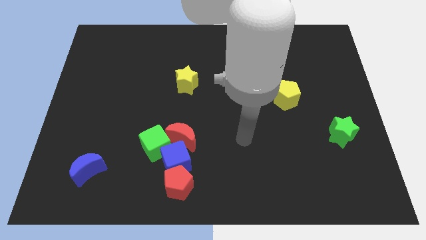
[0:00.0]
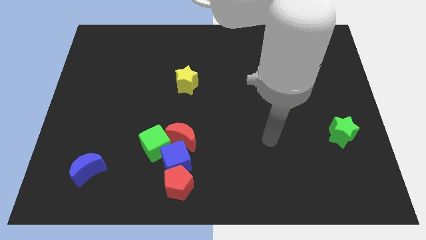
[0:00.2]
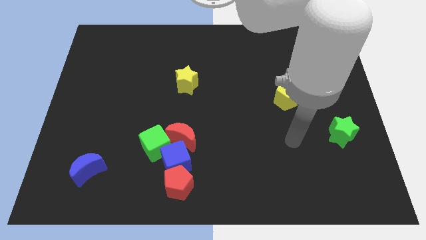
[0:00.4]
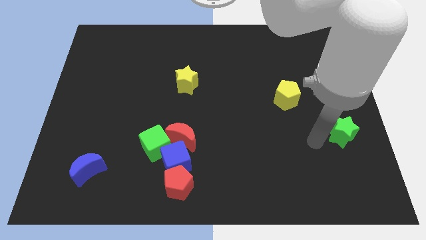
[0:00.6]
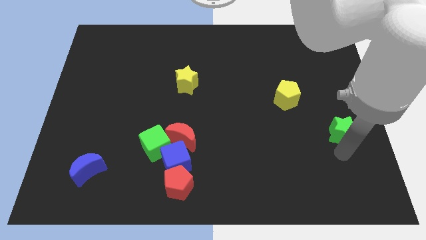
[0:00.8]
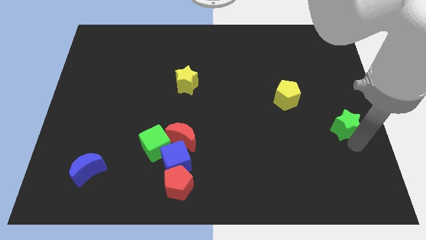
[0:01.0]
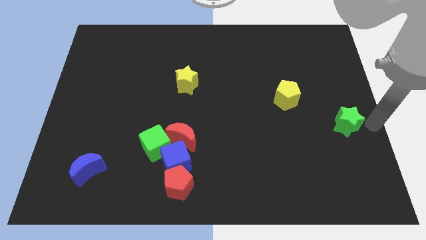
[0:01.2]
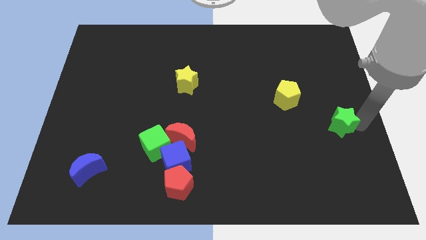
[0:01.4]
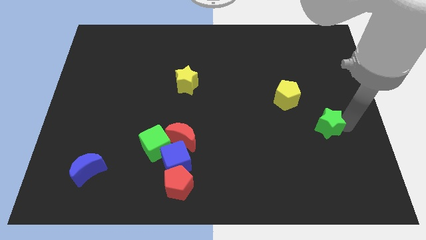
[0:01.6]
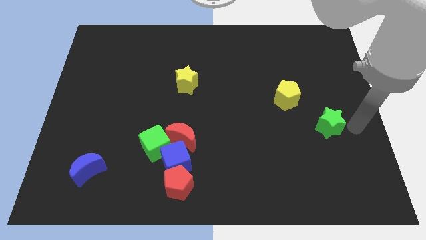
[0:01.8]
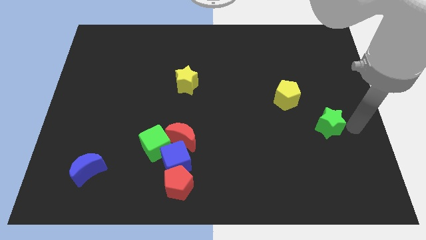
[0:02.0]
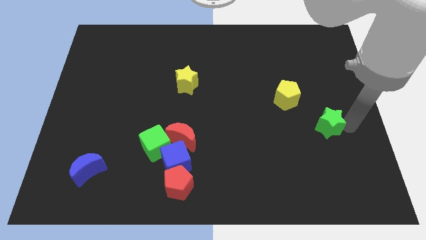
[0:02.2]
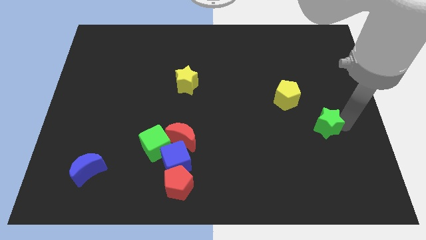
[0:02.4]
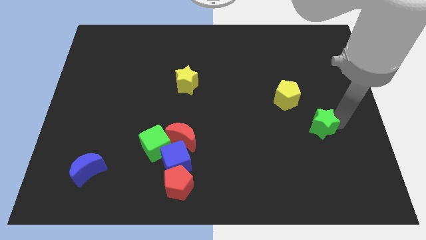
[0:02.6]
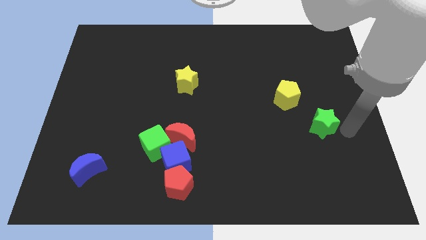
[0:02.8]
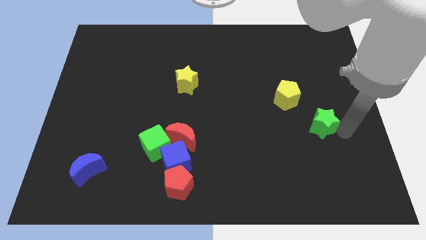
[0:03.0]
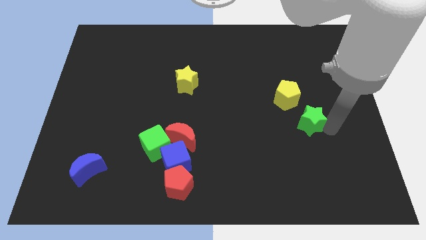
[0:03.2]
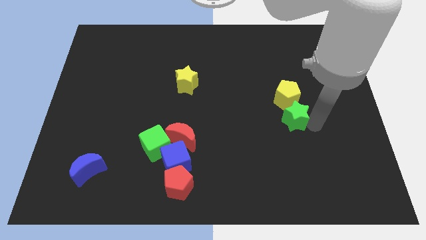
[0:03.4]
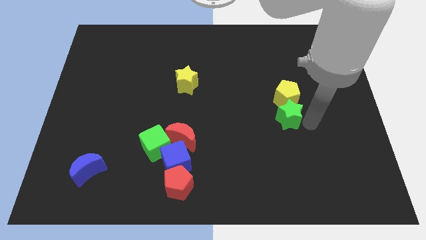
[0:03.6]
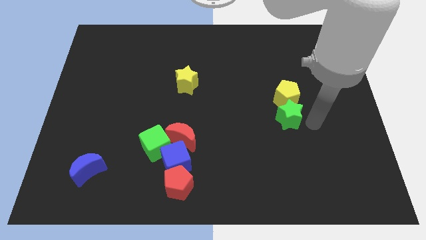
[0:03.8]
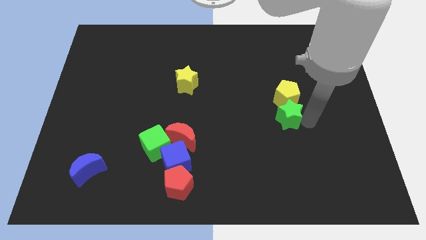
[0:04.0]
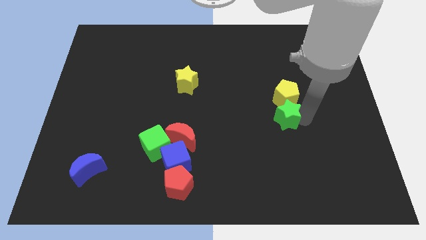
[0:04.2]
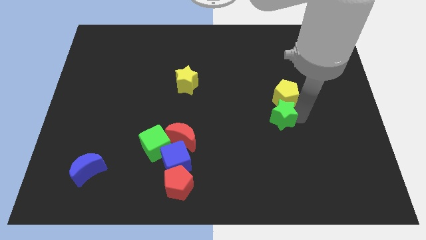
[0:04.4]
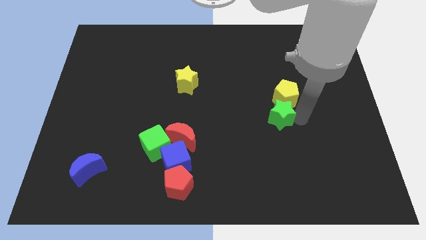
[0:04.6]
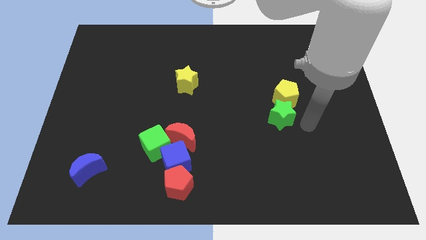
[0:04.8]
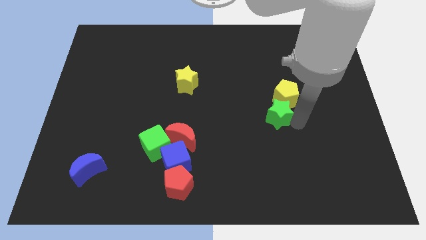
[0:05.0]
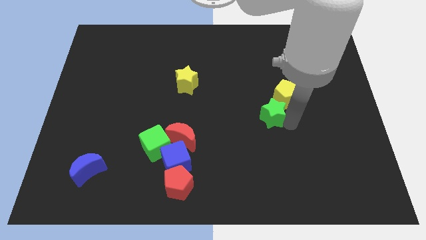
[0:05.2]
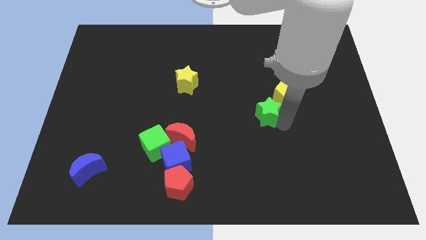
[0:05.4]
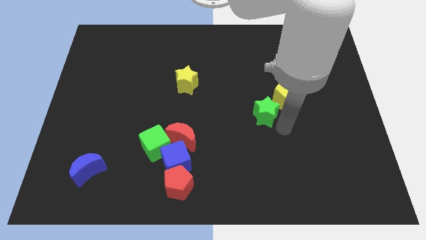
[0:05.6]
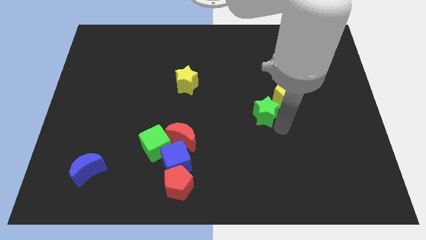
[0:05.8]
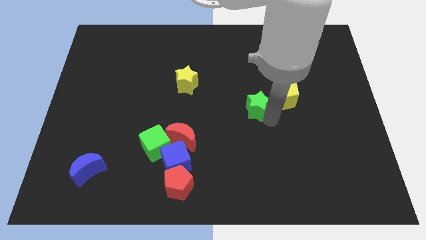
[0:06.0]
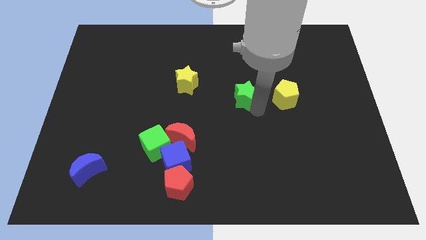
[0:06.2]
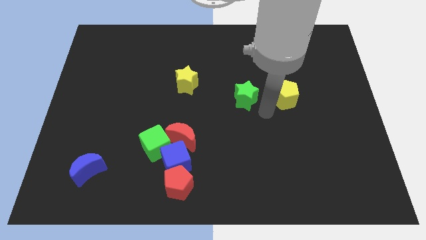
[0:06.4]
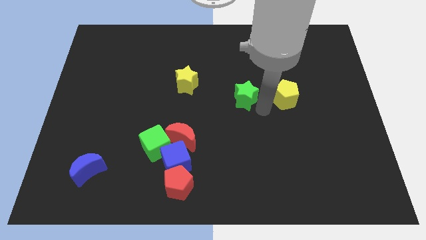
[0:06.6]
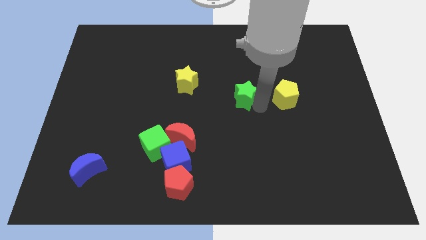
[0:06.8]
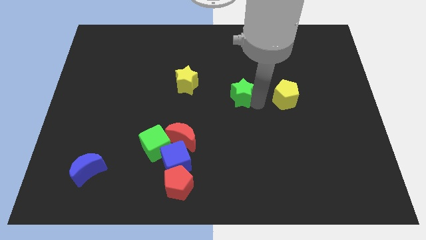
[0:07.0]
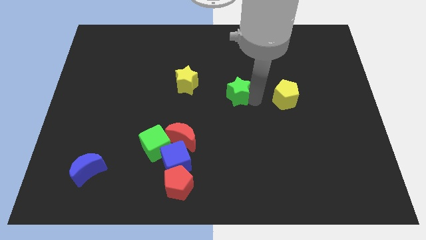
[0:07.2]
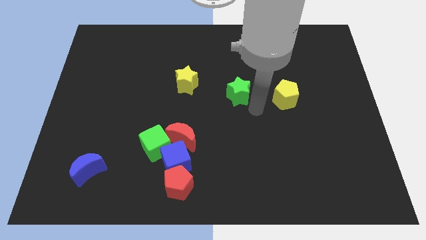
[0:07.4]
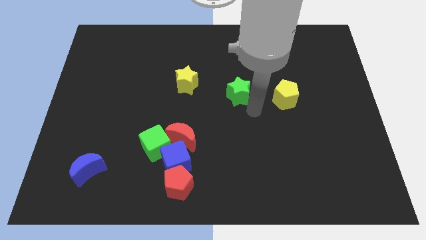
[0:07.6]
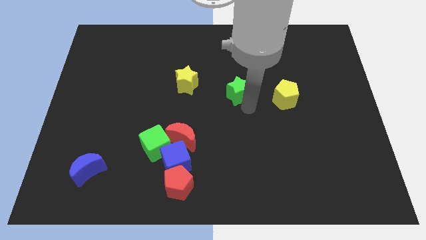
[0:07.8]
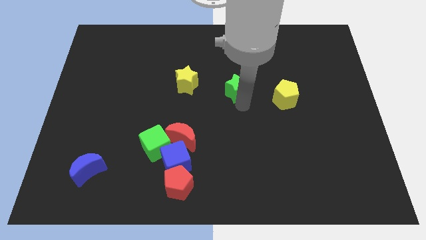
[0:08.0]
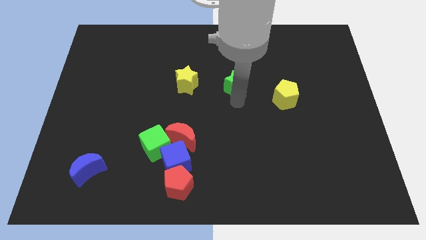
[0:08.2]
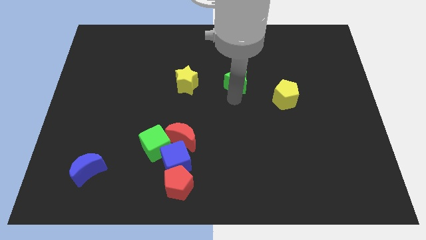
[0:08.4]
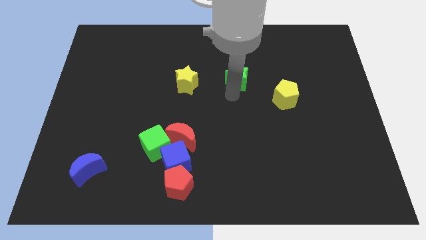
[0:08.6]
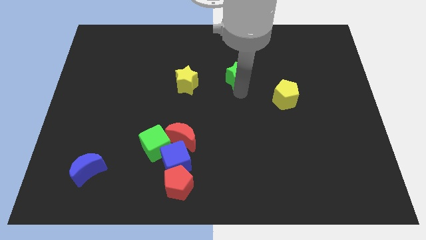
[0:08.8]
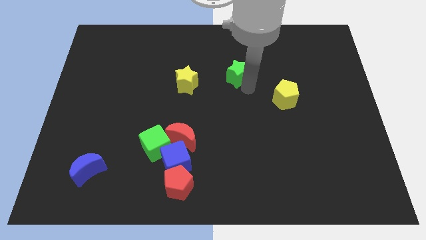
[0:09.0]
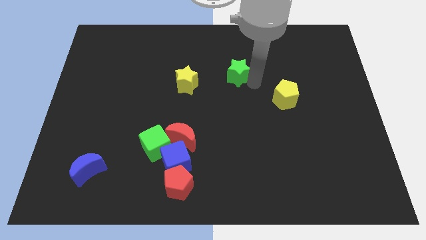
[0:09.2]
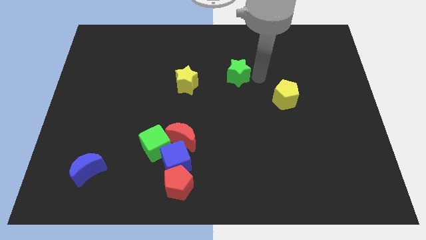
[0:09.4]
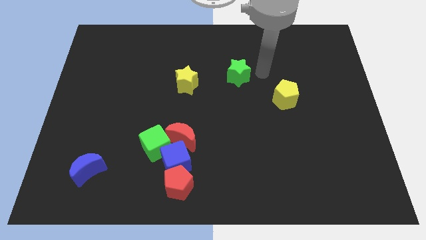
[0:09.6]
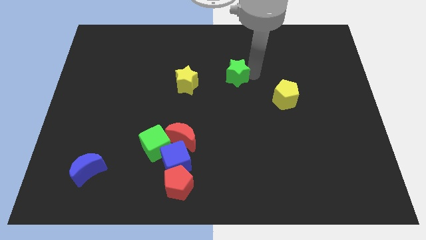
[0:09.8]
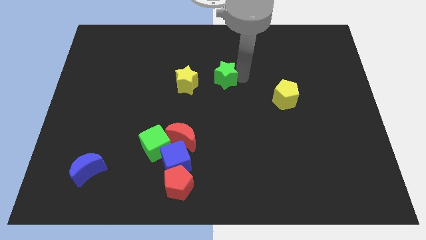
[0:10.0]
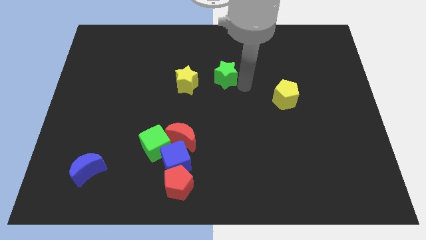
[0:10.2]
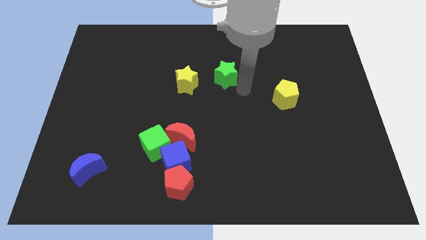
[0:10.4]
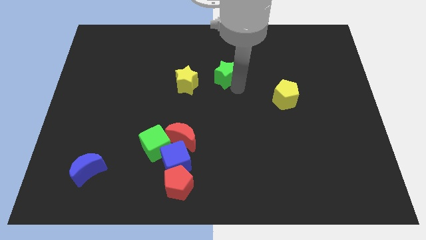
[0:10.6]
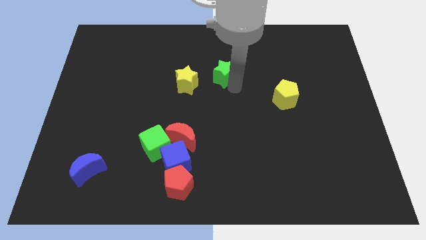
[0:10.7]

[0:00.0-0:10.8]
move the green star diagonally up and to the right of the yellow star

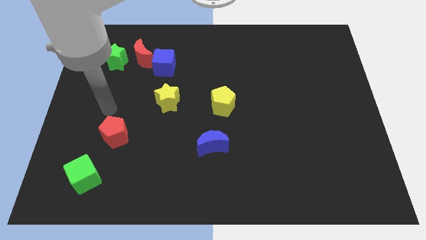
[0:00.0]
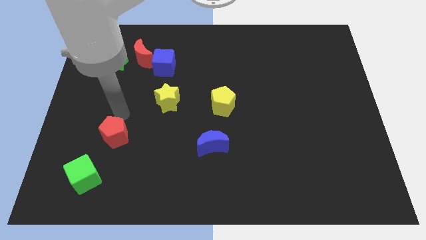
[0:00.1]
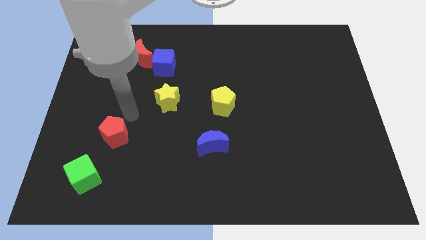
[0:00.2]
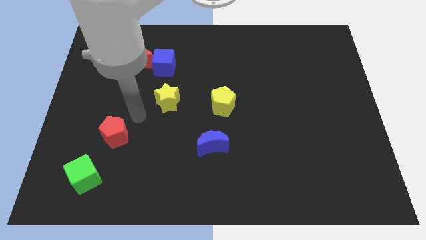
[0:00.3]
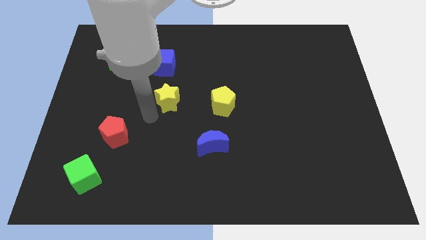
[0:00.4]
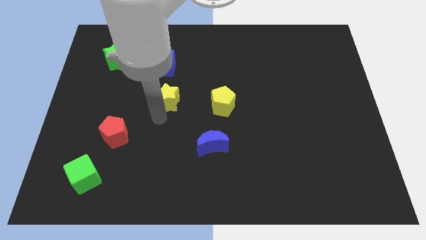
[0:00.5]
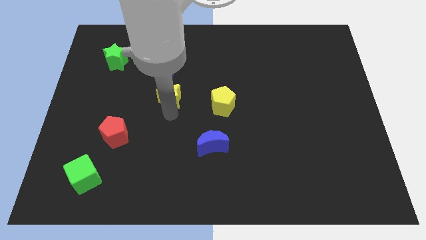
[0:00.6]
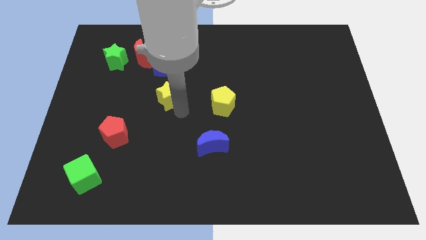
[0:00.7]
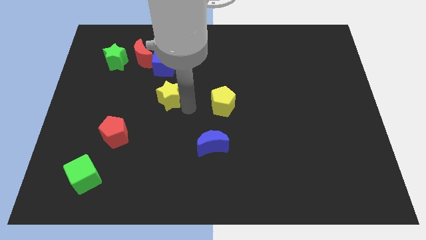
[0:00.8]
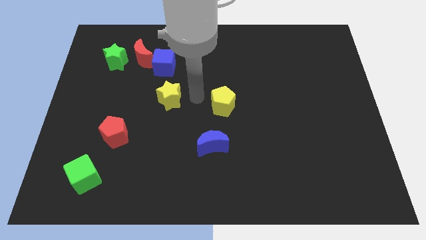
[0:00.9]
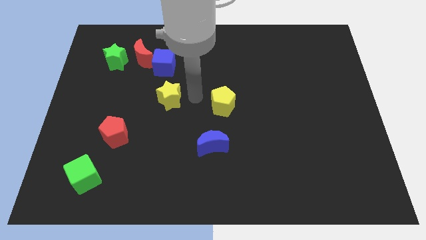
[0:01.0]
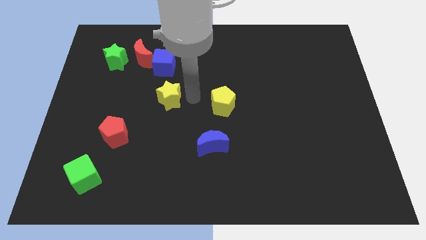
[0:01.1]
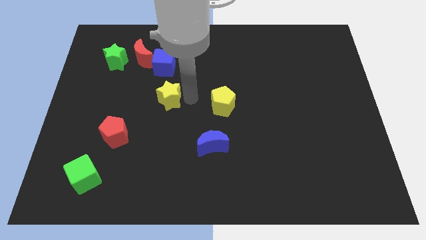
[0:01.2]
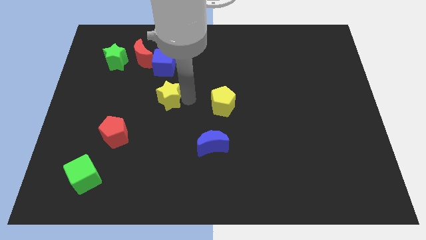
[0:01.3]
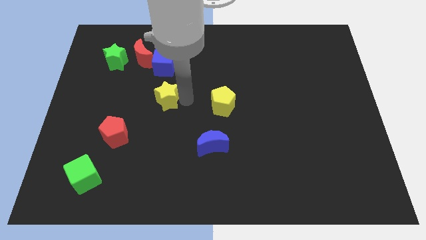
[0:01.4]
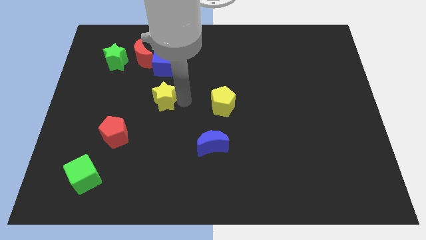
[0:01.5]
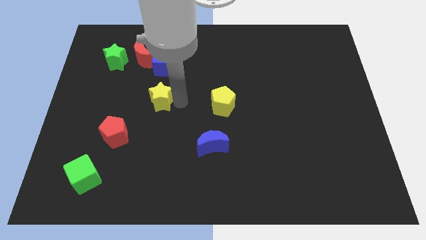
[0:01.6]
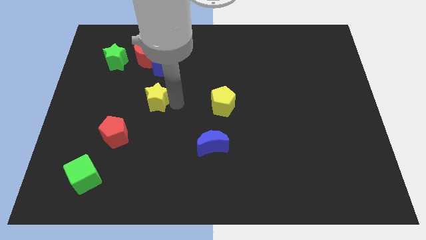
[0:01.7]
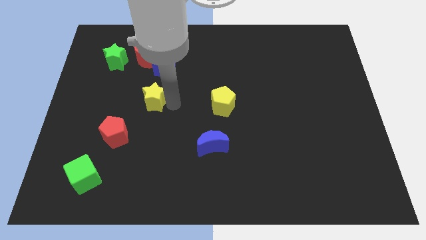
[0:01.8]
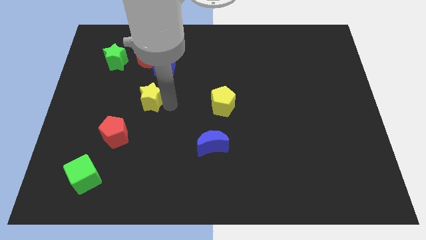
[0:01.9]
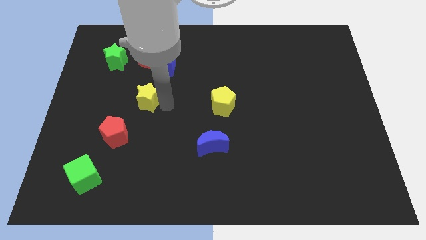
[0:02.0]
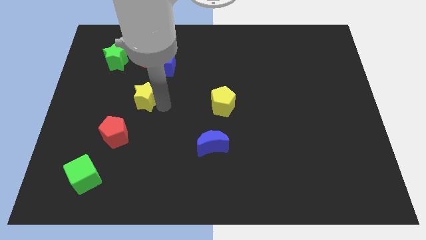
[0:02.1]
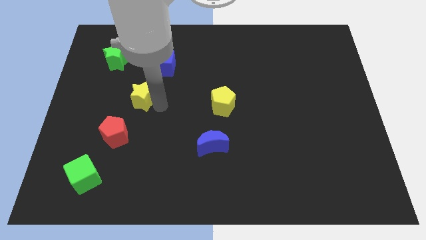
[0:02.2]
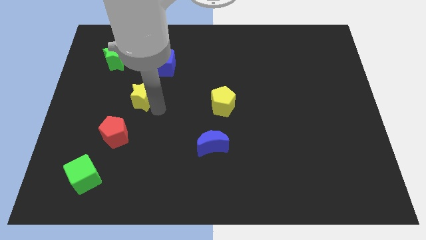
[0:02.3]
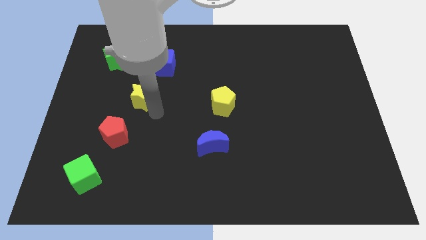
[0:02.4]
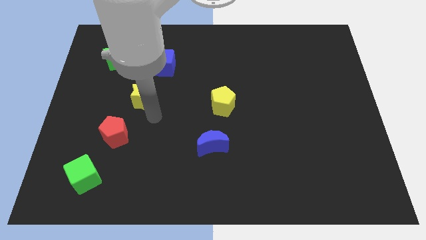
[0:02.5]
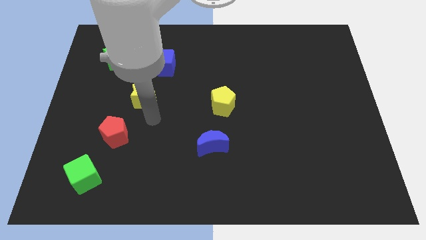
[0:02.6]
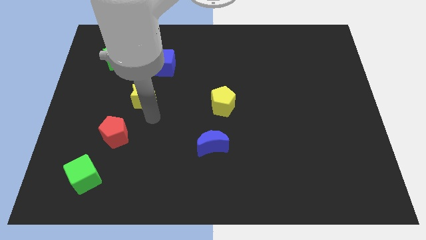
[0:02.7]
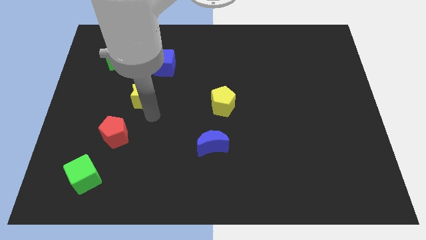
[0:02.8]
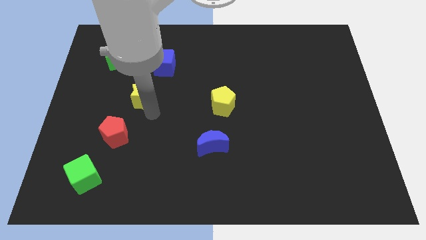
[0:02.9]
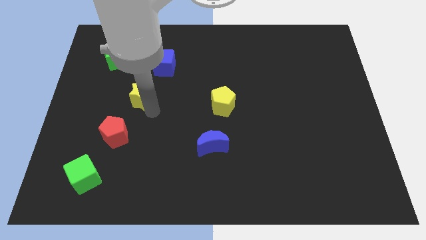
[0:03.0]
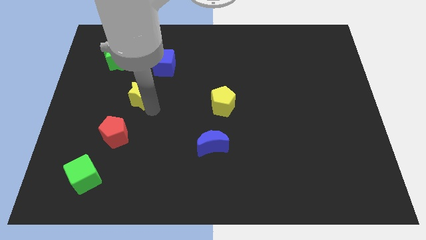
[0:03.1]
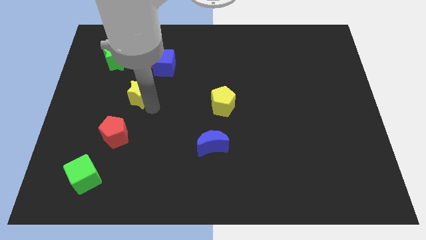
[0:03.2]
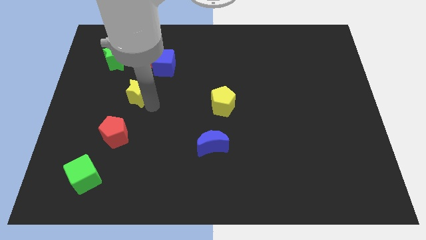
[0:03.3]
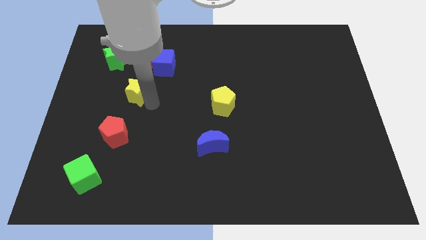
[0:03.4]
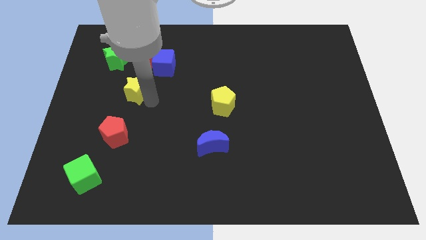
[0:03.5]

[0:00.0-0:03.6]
slide the yellow star to the bottom right side of the green star
